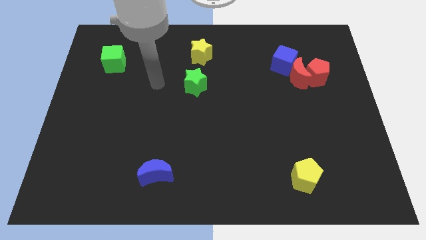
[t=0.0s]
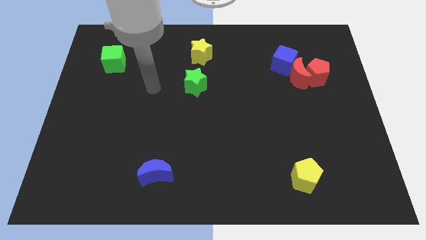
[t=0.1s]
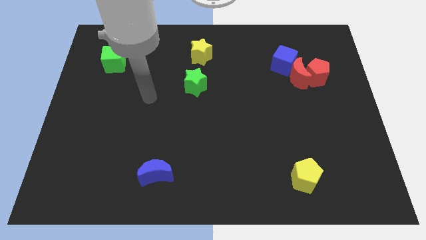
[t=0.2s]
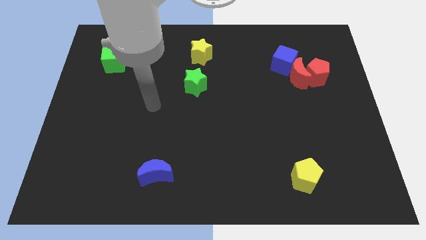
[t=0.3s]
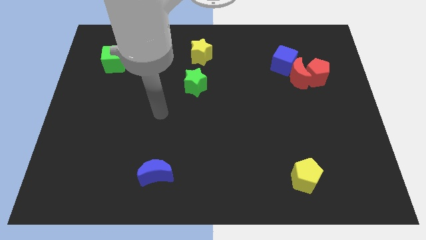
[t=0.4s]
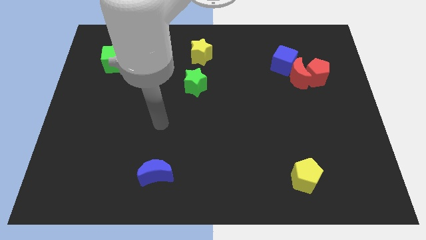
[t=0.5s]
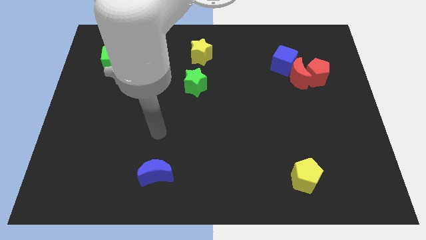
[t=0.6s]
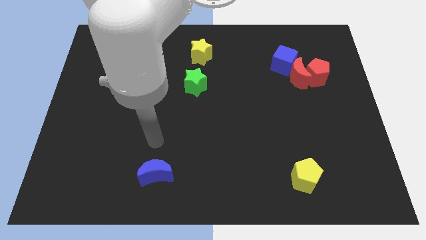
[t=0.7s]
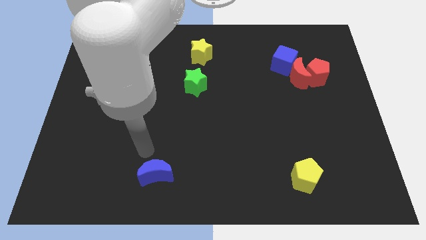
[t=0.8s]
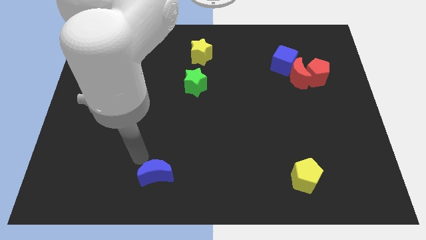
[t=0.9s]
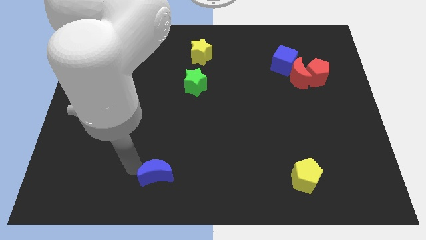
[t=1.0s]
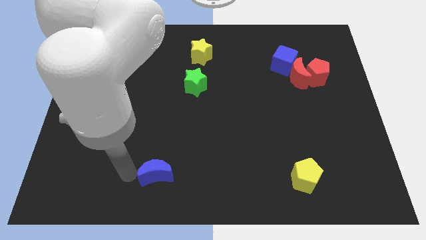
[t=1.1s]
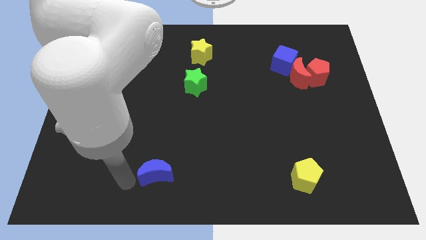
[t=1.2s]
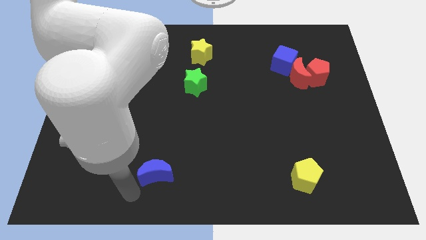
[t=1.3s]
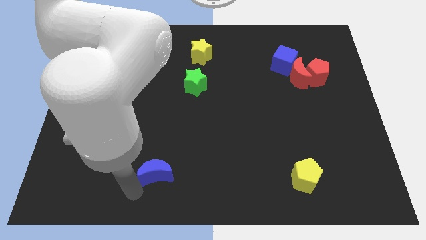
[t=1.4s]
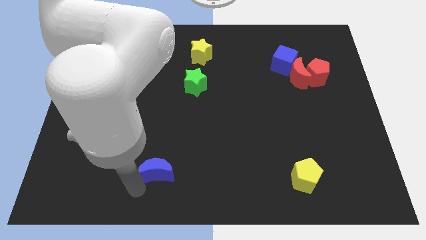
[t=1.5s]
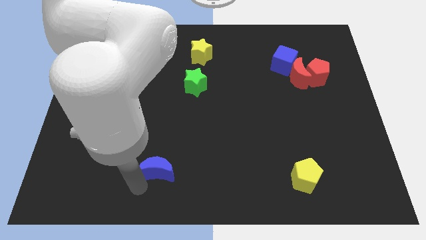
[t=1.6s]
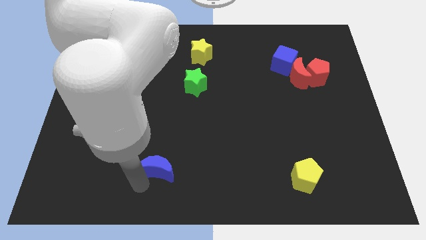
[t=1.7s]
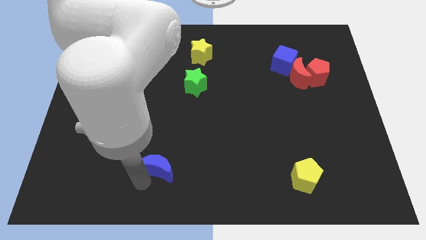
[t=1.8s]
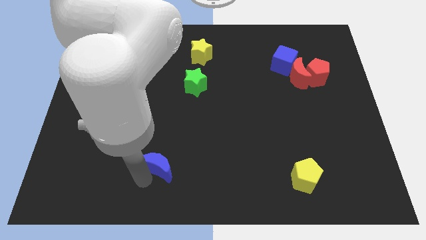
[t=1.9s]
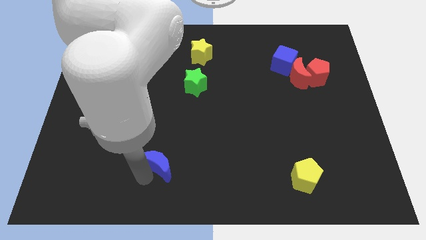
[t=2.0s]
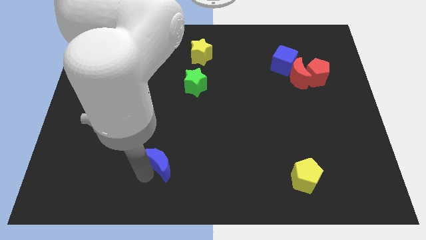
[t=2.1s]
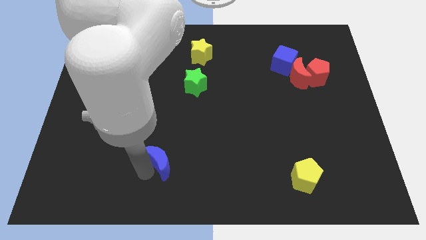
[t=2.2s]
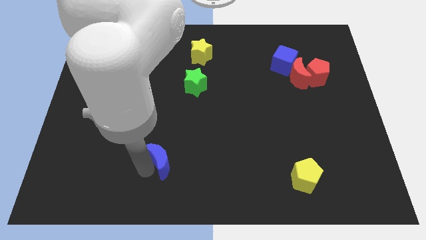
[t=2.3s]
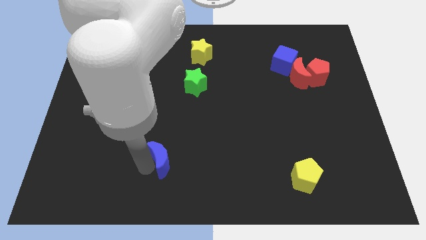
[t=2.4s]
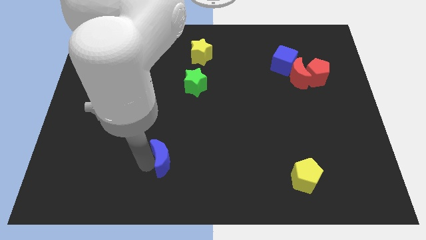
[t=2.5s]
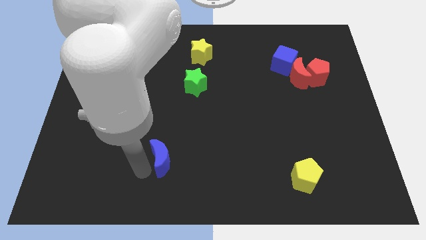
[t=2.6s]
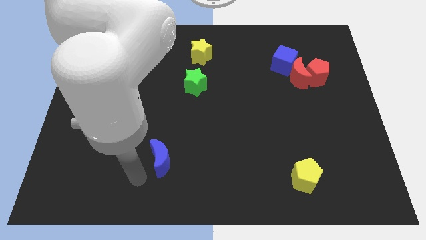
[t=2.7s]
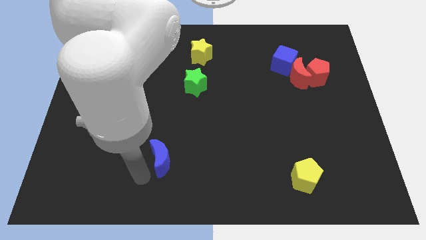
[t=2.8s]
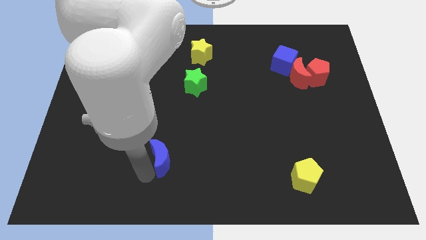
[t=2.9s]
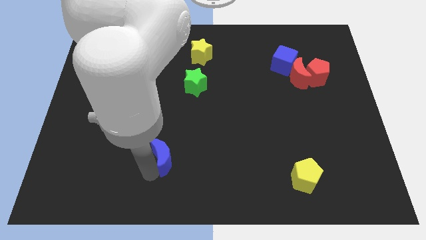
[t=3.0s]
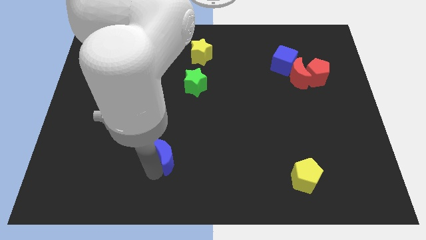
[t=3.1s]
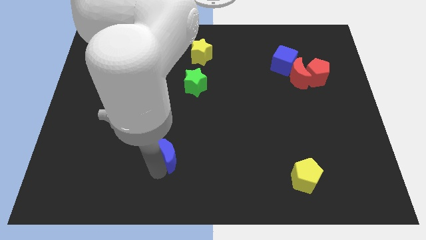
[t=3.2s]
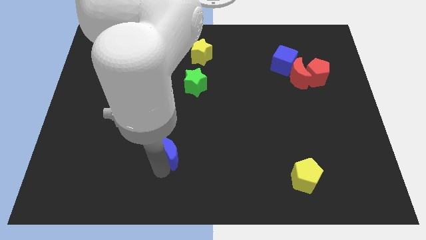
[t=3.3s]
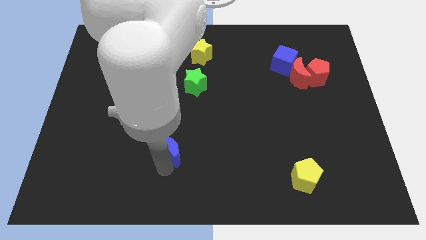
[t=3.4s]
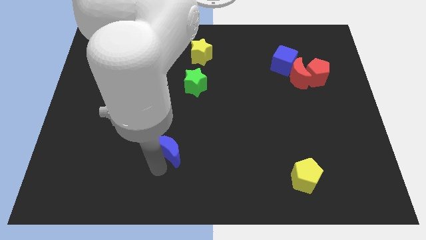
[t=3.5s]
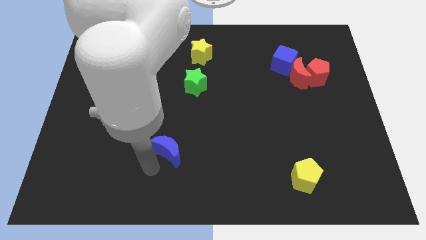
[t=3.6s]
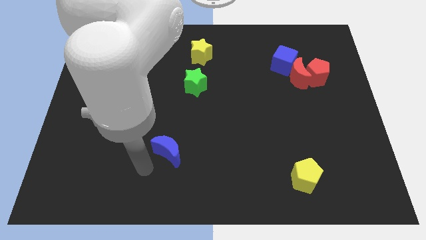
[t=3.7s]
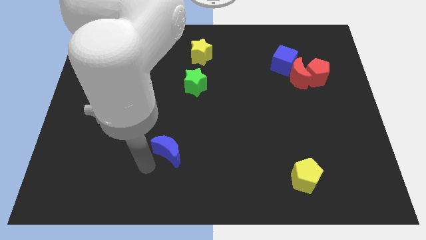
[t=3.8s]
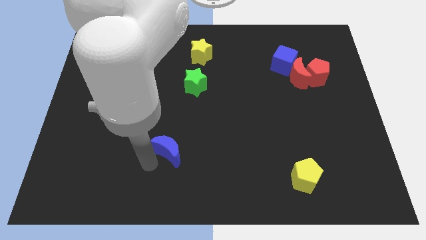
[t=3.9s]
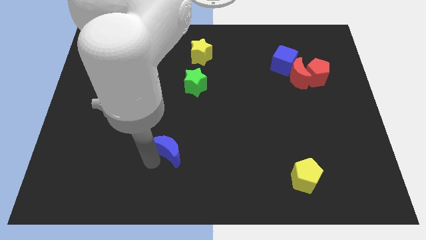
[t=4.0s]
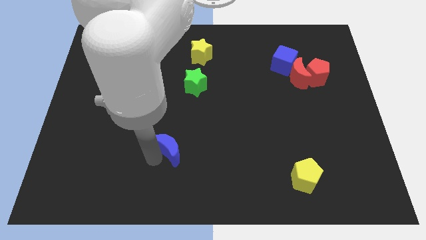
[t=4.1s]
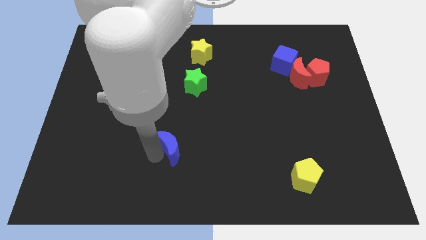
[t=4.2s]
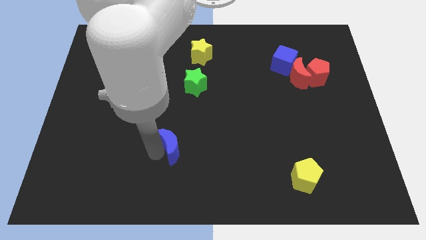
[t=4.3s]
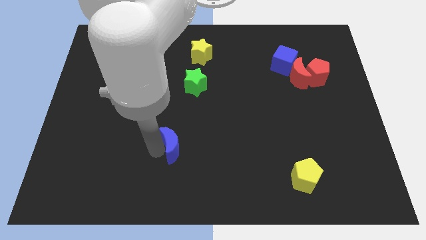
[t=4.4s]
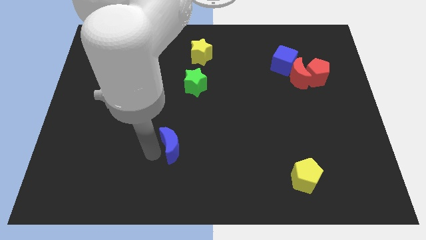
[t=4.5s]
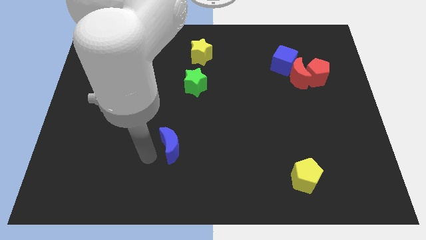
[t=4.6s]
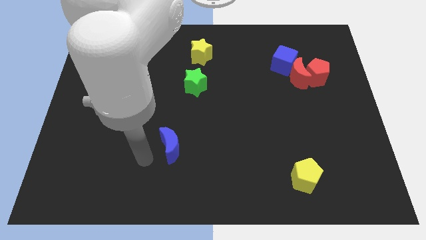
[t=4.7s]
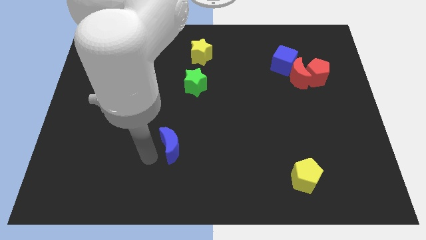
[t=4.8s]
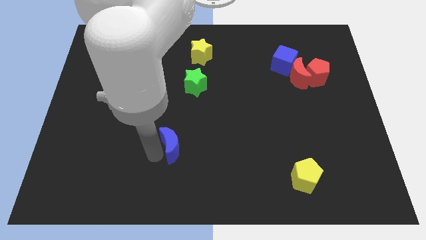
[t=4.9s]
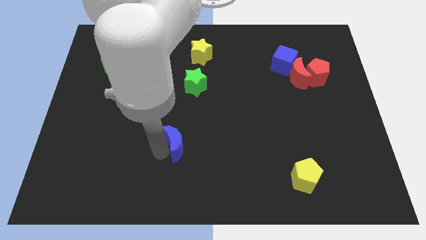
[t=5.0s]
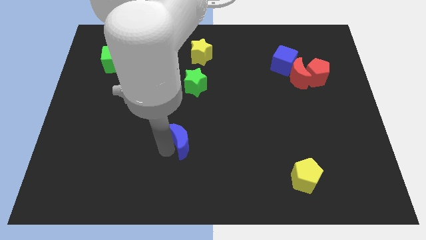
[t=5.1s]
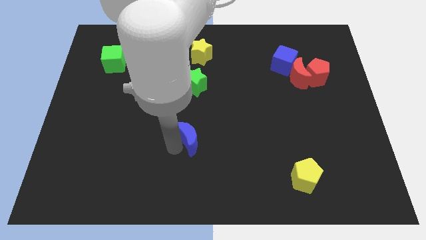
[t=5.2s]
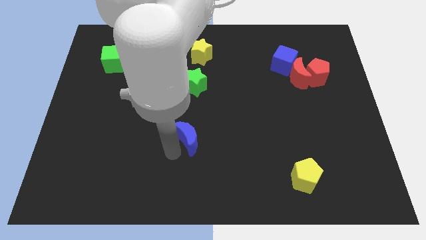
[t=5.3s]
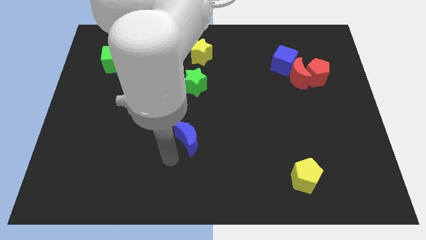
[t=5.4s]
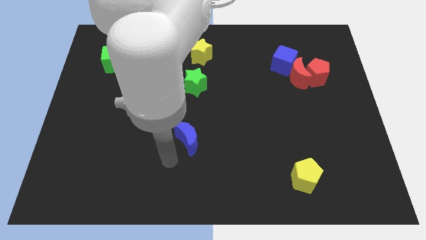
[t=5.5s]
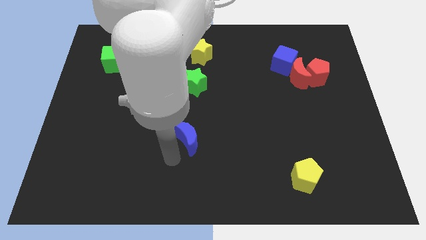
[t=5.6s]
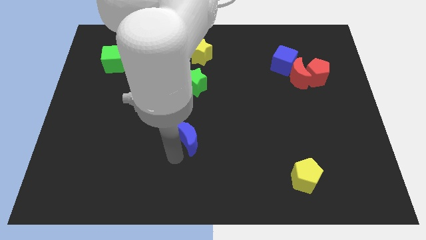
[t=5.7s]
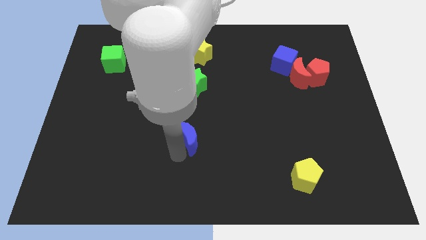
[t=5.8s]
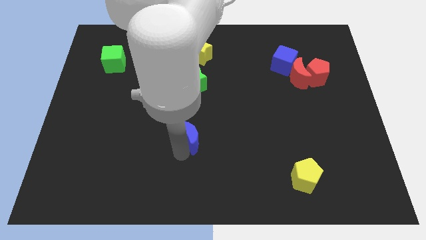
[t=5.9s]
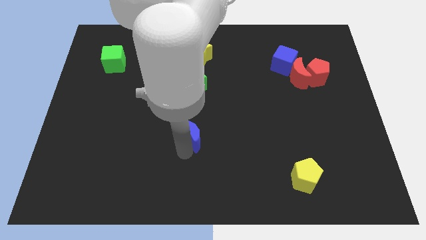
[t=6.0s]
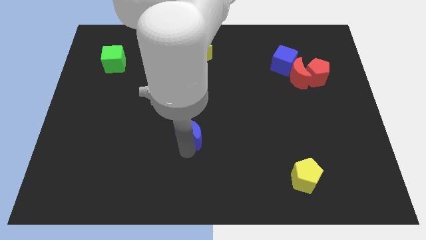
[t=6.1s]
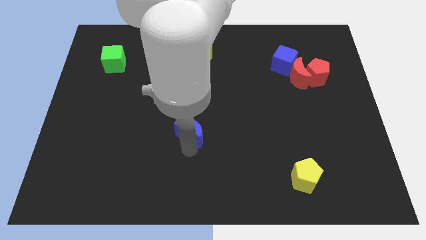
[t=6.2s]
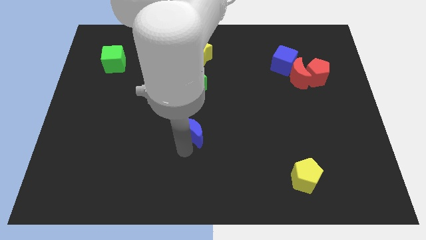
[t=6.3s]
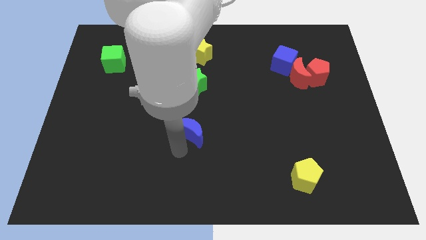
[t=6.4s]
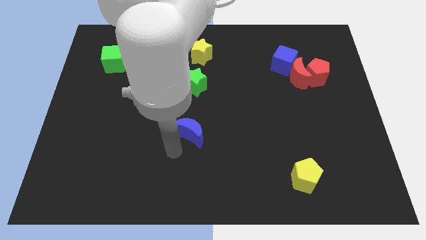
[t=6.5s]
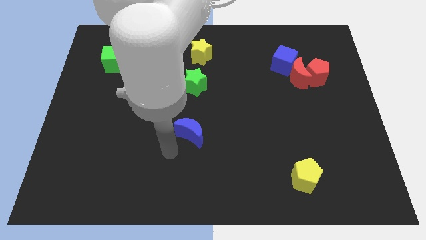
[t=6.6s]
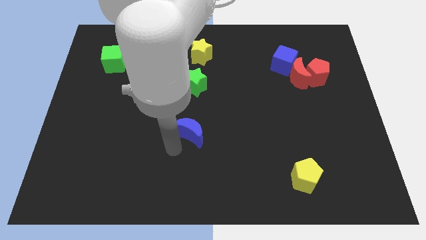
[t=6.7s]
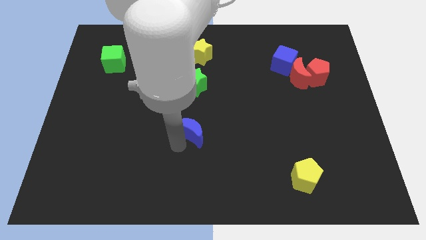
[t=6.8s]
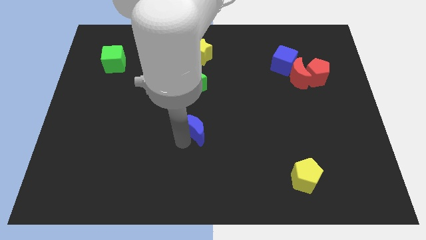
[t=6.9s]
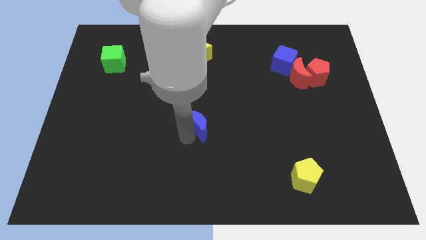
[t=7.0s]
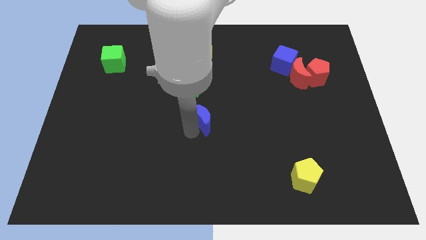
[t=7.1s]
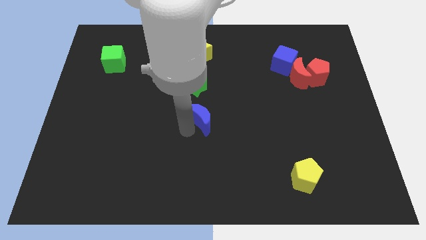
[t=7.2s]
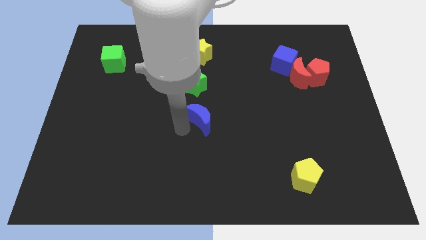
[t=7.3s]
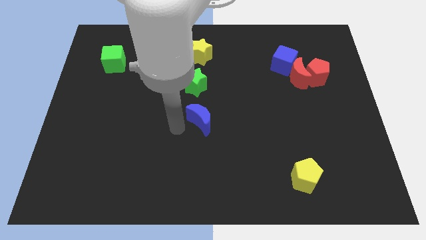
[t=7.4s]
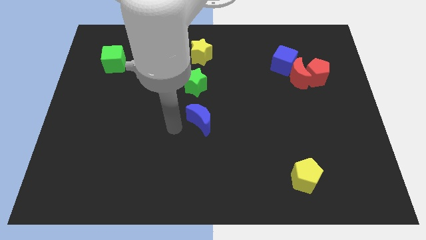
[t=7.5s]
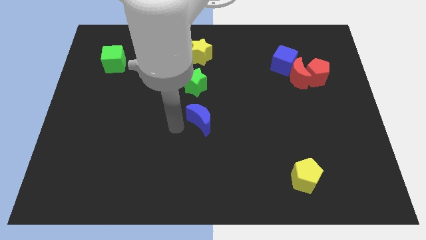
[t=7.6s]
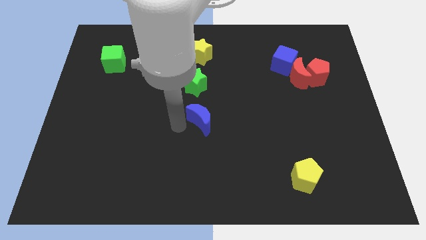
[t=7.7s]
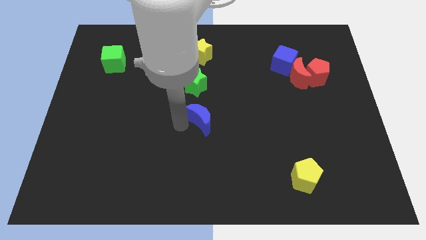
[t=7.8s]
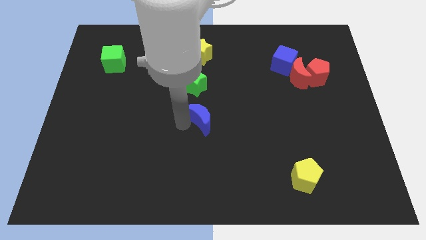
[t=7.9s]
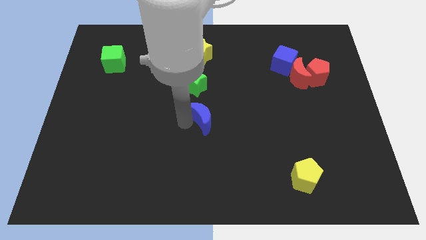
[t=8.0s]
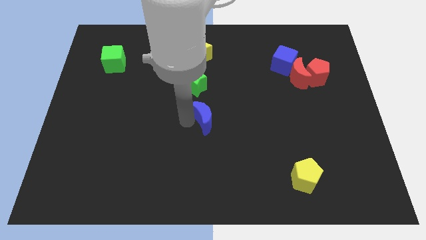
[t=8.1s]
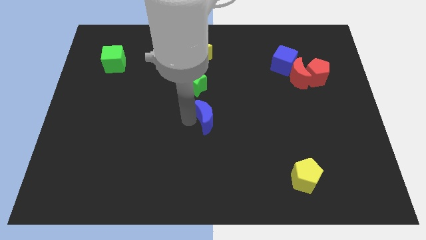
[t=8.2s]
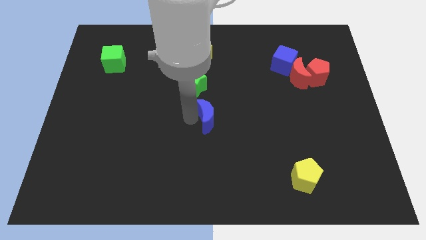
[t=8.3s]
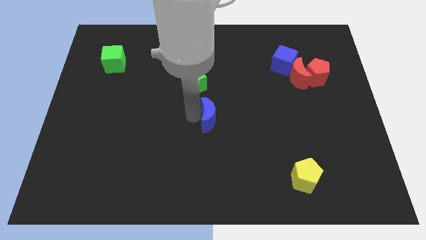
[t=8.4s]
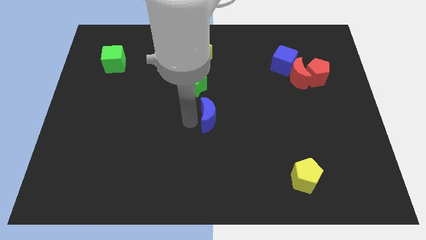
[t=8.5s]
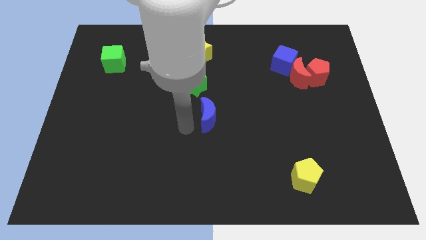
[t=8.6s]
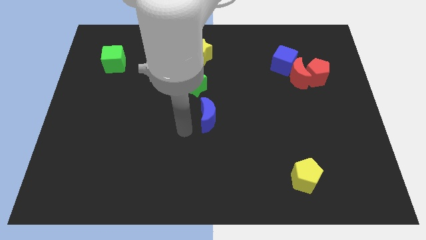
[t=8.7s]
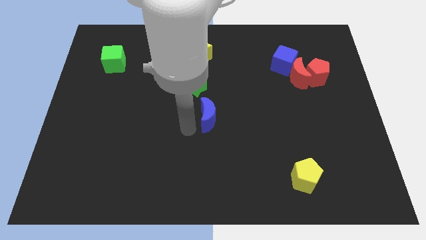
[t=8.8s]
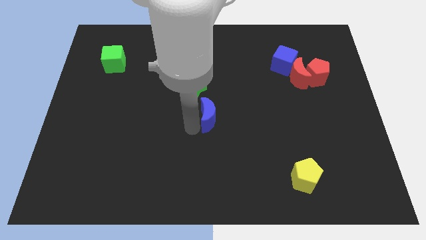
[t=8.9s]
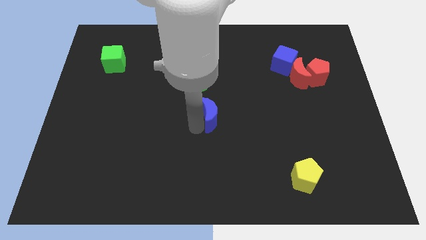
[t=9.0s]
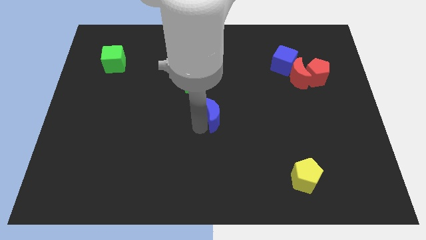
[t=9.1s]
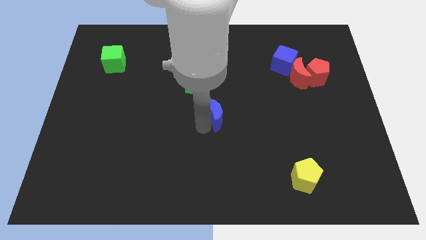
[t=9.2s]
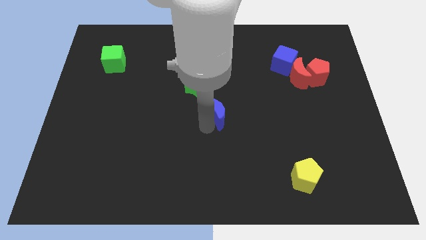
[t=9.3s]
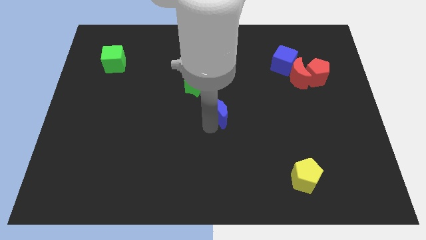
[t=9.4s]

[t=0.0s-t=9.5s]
push the blue moon diagonally upwards and right
